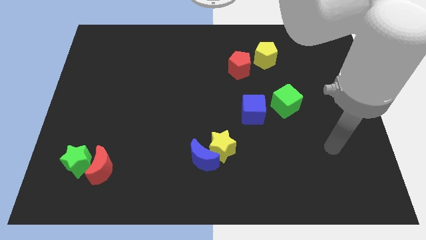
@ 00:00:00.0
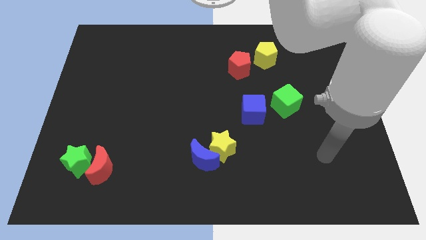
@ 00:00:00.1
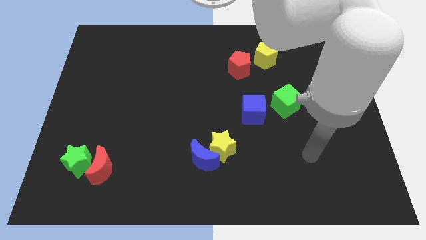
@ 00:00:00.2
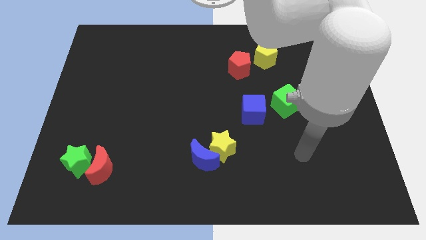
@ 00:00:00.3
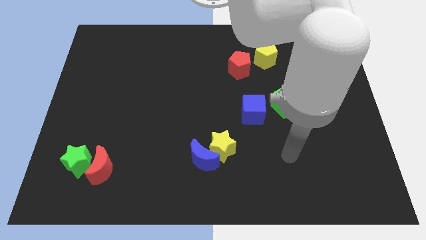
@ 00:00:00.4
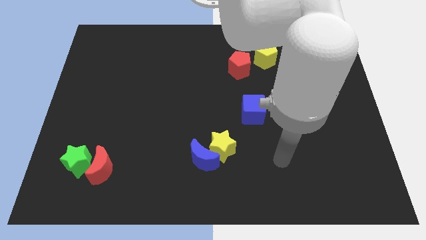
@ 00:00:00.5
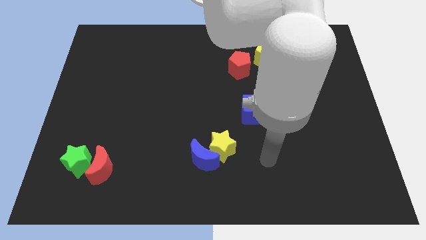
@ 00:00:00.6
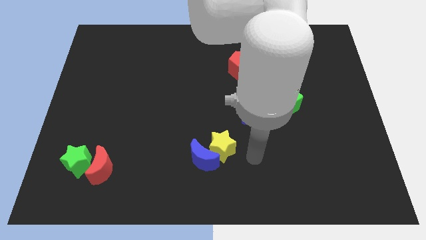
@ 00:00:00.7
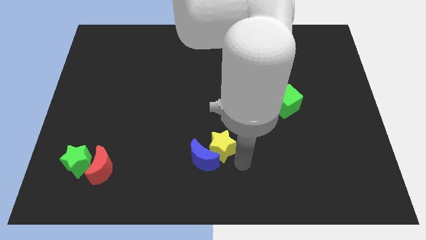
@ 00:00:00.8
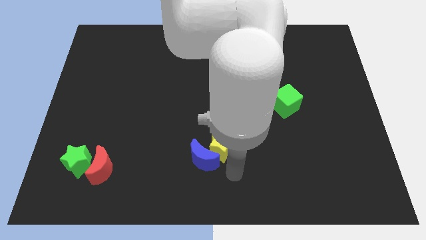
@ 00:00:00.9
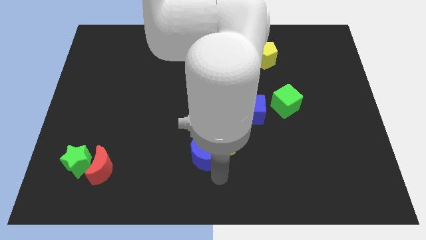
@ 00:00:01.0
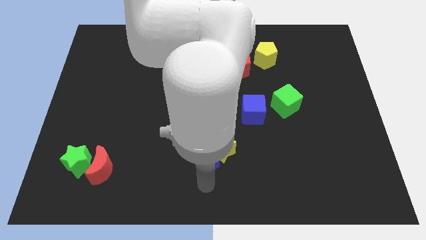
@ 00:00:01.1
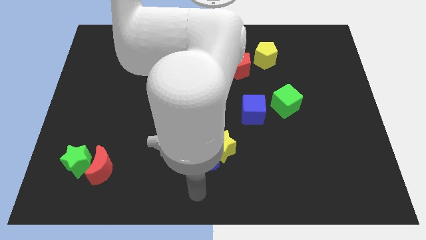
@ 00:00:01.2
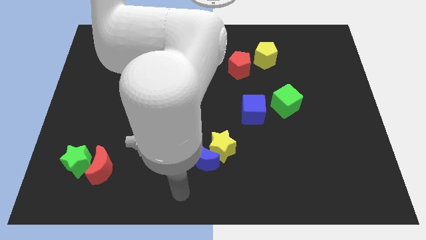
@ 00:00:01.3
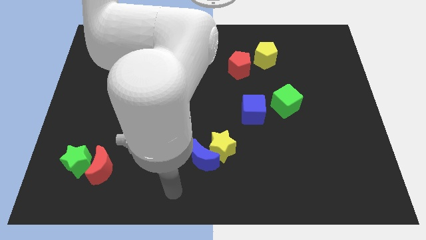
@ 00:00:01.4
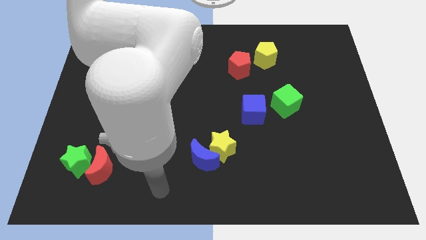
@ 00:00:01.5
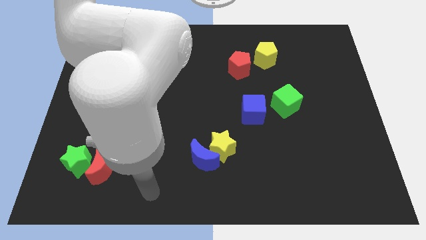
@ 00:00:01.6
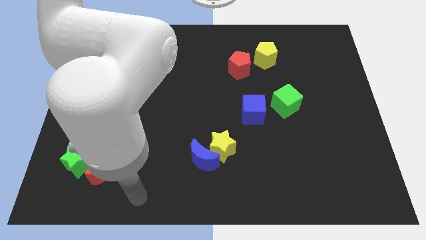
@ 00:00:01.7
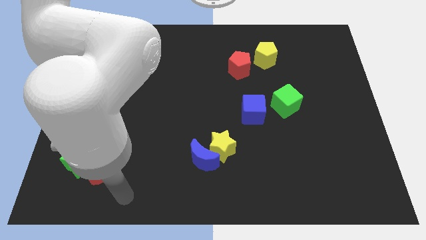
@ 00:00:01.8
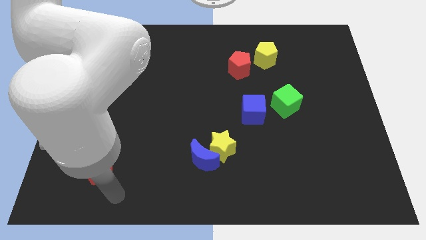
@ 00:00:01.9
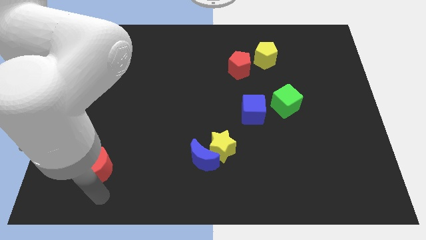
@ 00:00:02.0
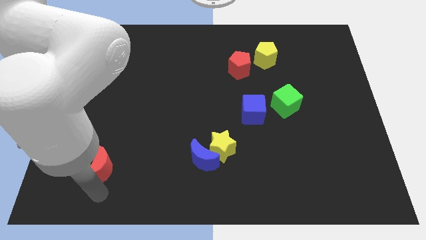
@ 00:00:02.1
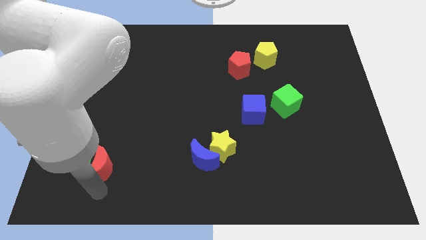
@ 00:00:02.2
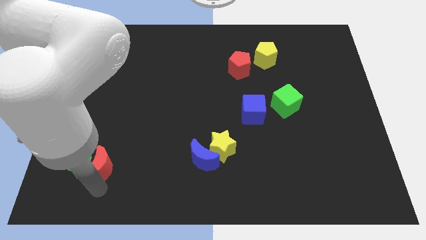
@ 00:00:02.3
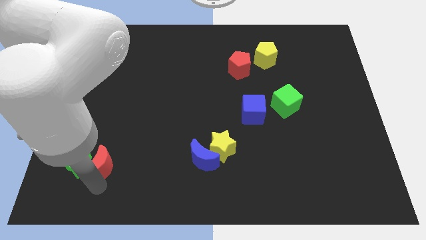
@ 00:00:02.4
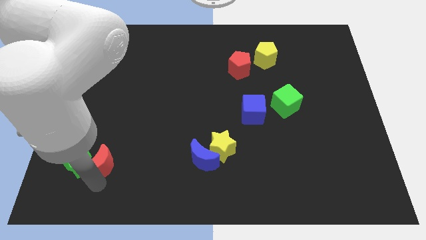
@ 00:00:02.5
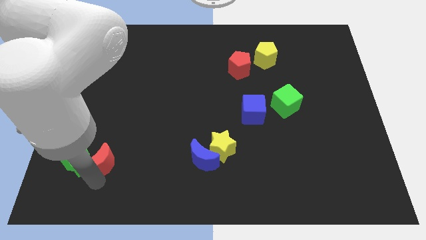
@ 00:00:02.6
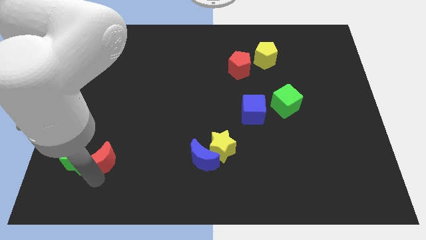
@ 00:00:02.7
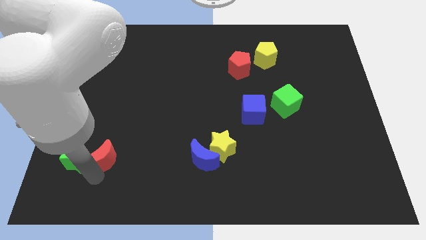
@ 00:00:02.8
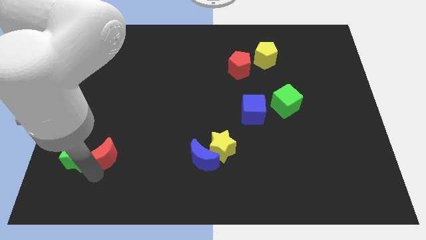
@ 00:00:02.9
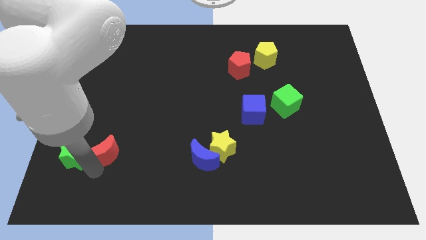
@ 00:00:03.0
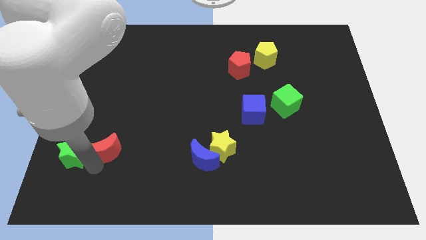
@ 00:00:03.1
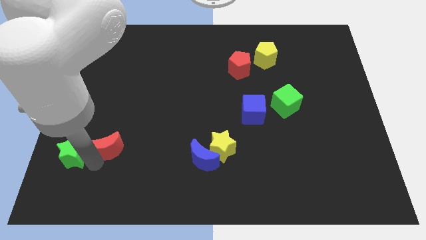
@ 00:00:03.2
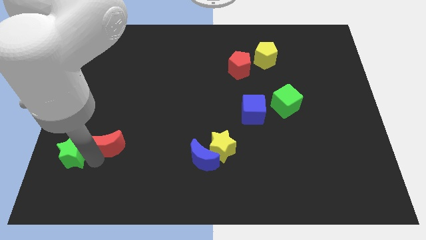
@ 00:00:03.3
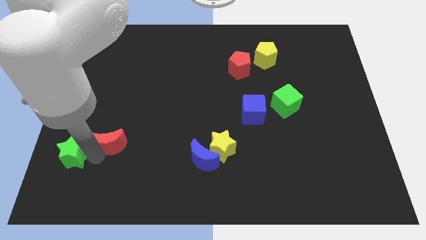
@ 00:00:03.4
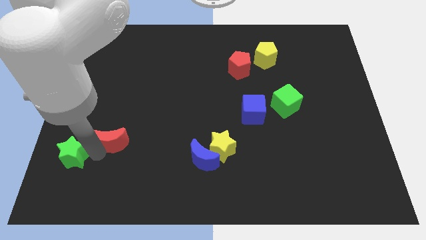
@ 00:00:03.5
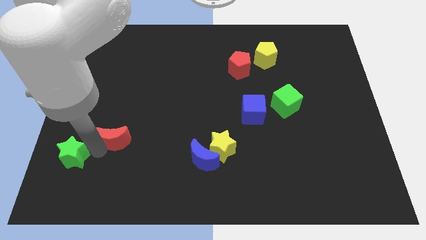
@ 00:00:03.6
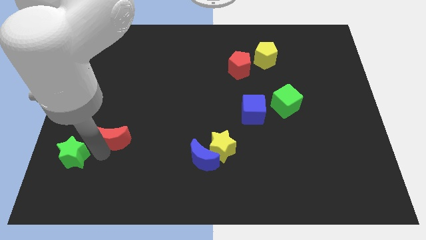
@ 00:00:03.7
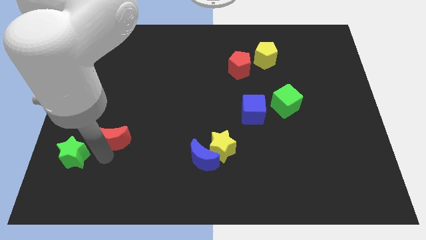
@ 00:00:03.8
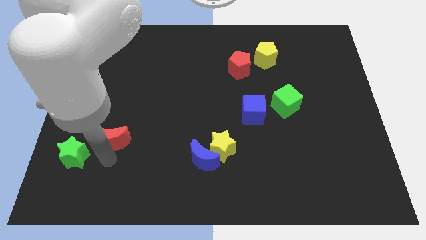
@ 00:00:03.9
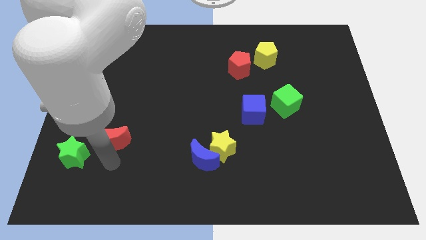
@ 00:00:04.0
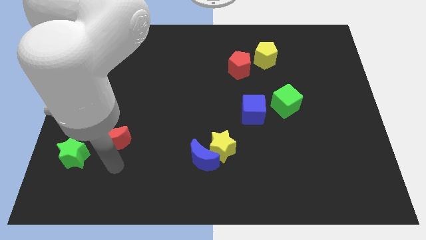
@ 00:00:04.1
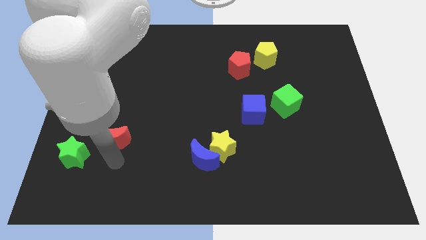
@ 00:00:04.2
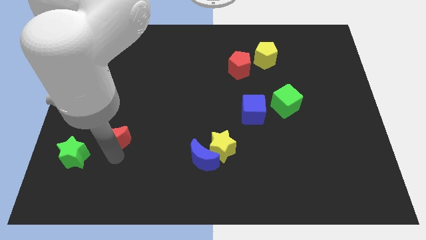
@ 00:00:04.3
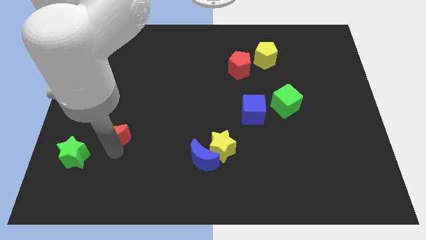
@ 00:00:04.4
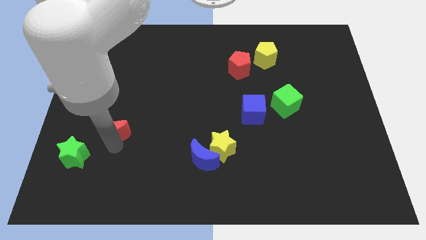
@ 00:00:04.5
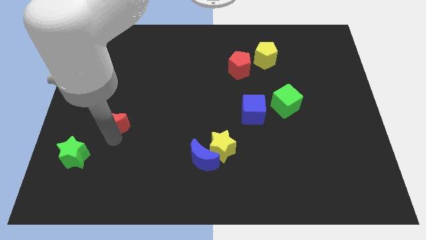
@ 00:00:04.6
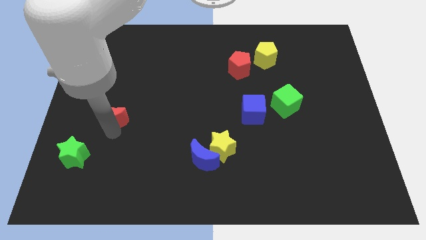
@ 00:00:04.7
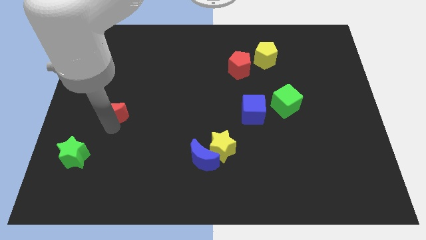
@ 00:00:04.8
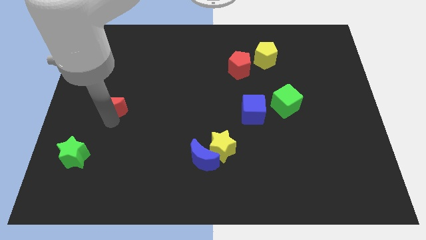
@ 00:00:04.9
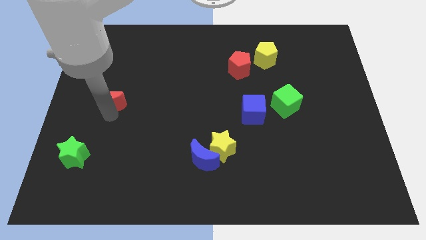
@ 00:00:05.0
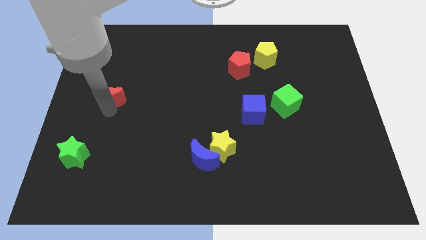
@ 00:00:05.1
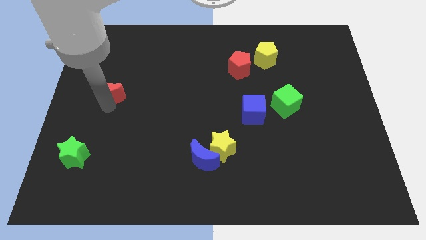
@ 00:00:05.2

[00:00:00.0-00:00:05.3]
slide the red moon upwards

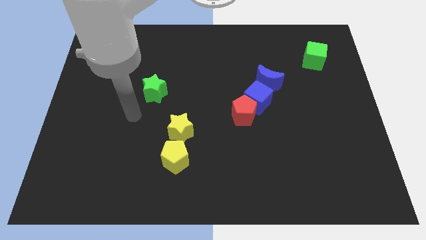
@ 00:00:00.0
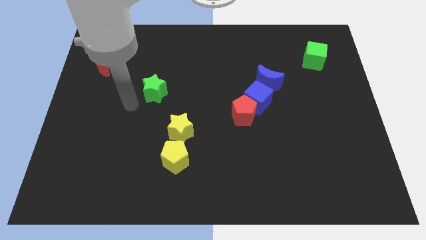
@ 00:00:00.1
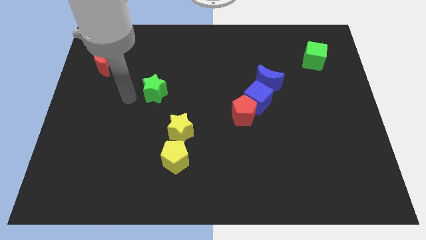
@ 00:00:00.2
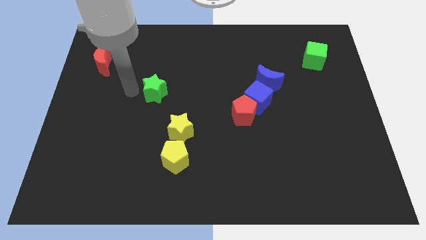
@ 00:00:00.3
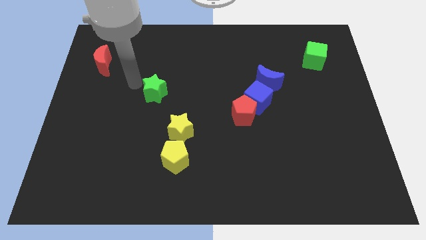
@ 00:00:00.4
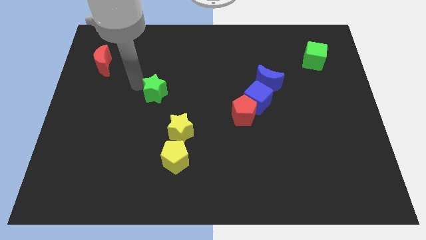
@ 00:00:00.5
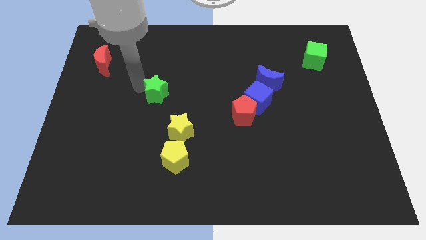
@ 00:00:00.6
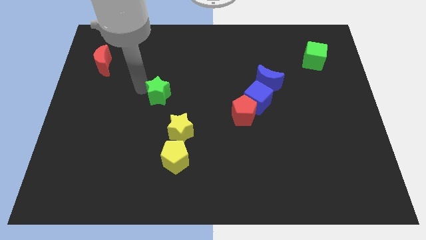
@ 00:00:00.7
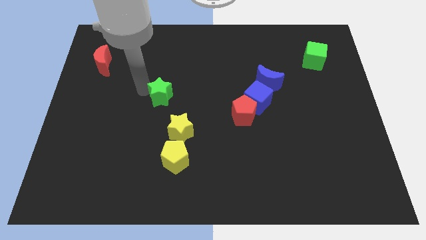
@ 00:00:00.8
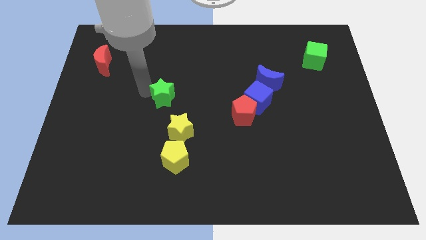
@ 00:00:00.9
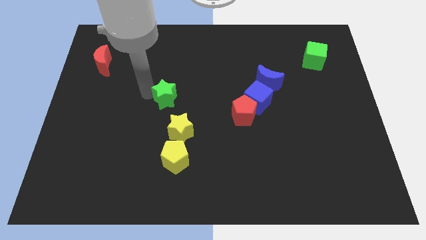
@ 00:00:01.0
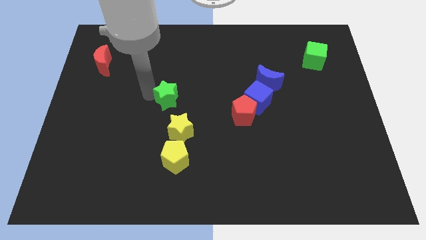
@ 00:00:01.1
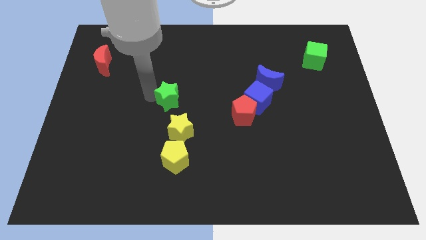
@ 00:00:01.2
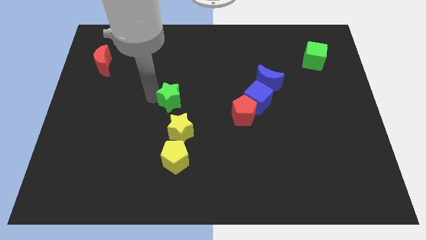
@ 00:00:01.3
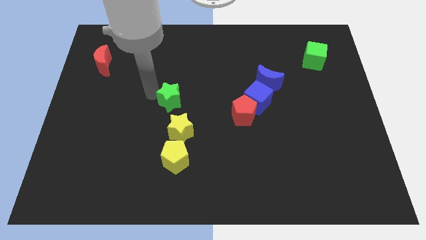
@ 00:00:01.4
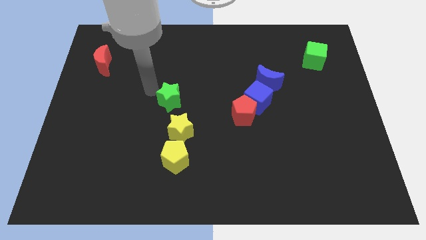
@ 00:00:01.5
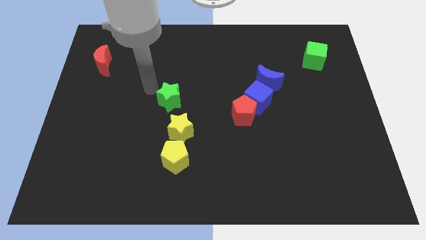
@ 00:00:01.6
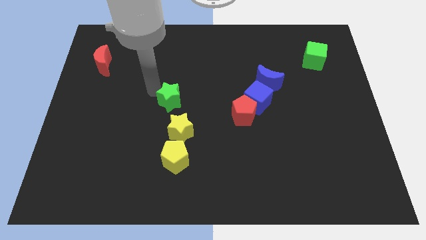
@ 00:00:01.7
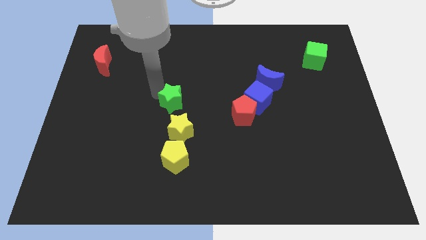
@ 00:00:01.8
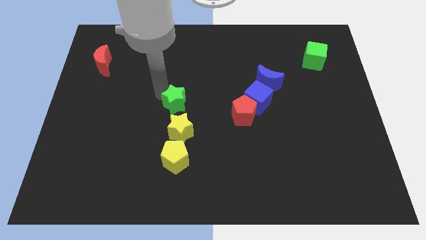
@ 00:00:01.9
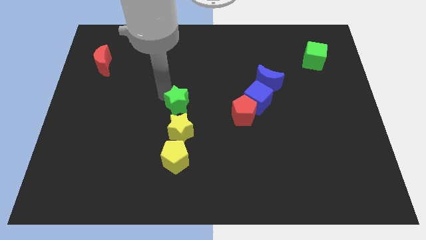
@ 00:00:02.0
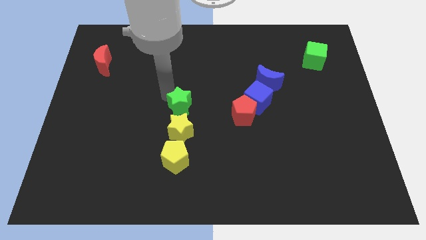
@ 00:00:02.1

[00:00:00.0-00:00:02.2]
slightly slide the green star diagonally downwards and right

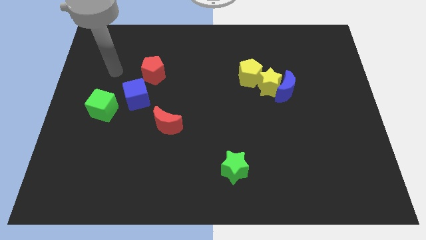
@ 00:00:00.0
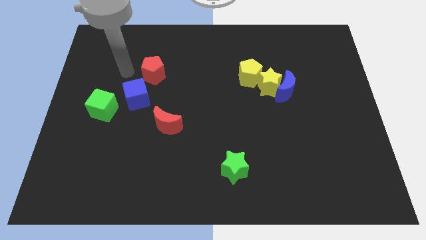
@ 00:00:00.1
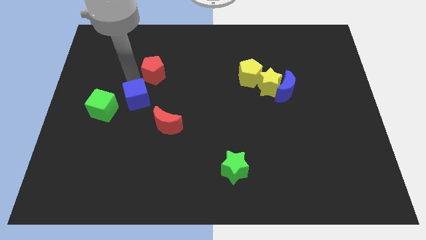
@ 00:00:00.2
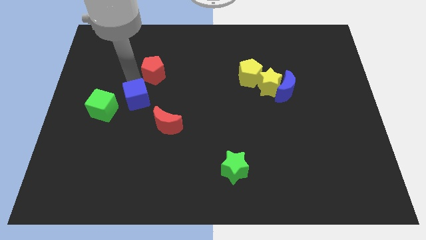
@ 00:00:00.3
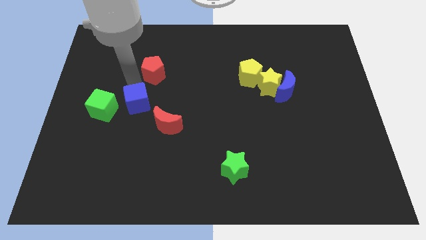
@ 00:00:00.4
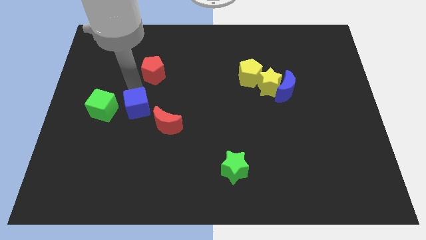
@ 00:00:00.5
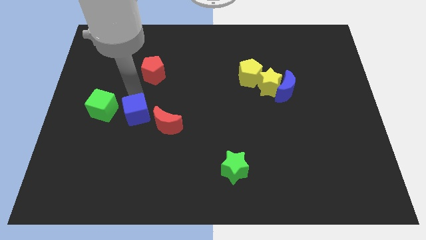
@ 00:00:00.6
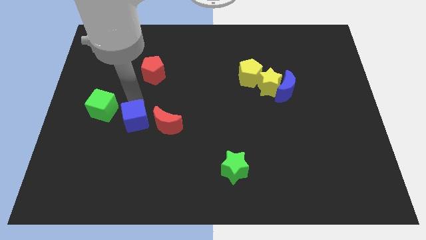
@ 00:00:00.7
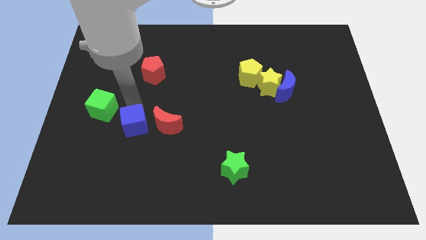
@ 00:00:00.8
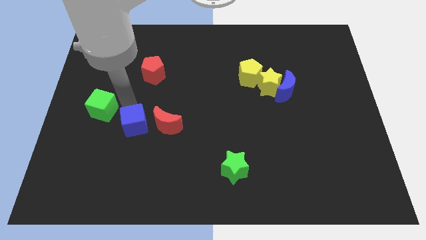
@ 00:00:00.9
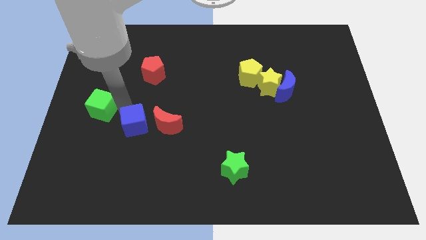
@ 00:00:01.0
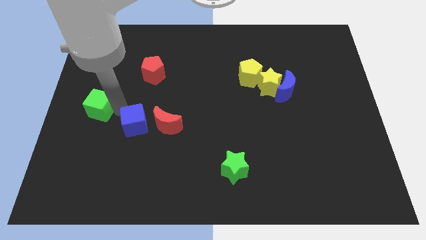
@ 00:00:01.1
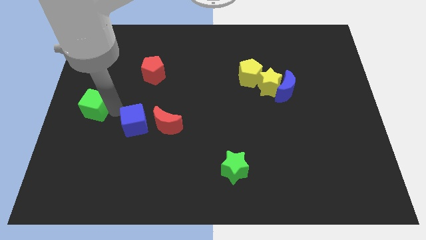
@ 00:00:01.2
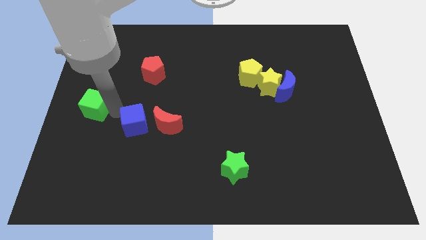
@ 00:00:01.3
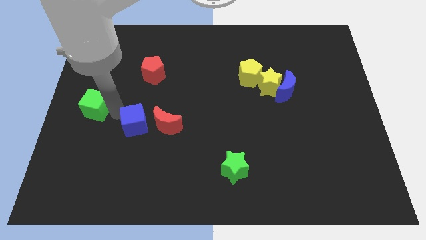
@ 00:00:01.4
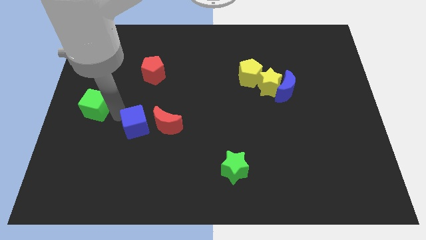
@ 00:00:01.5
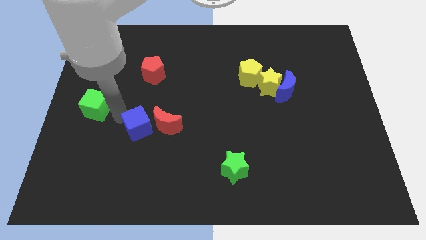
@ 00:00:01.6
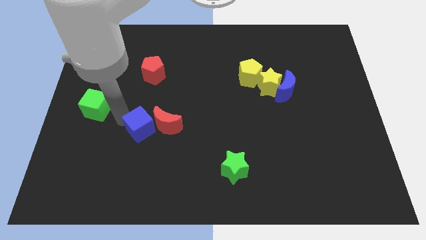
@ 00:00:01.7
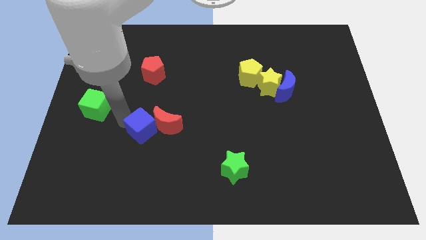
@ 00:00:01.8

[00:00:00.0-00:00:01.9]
move the blue cube a little bit diagonally down and right
